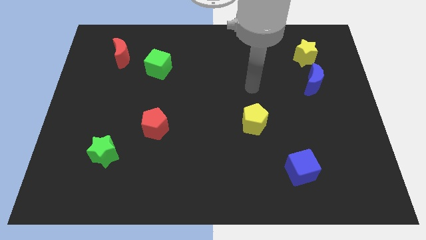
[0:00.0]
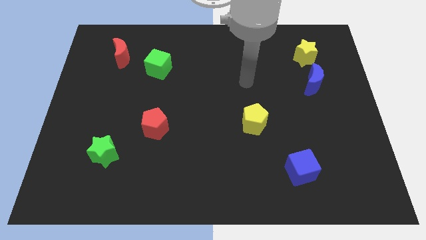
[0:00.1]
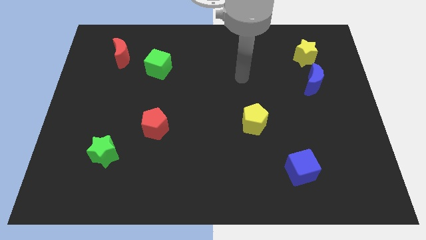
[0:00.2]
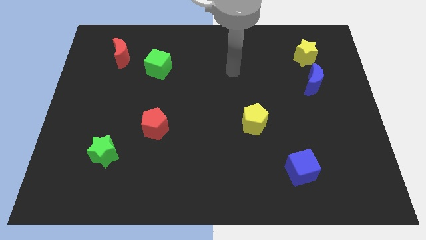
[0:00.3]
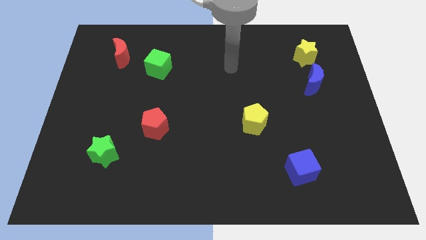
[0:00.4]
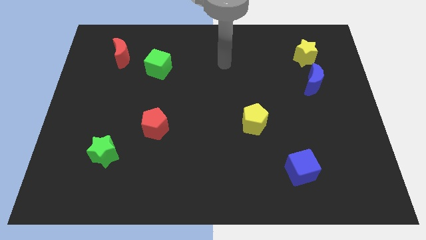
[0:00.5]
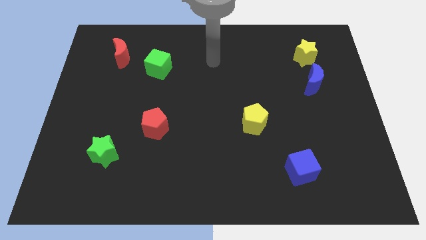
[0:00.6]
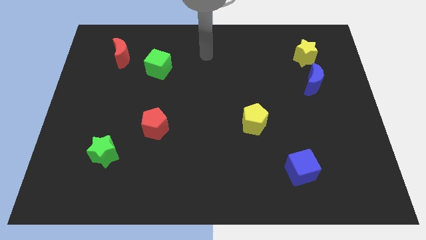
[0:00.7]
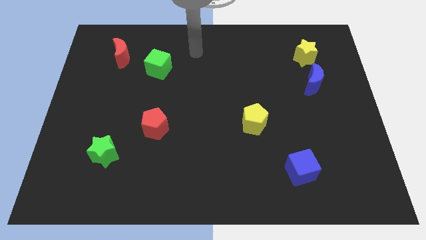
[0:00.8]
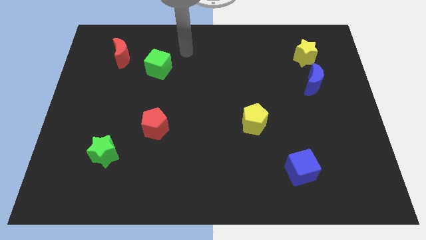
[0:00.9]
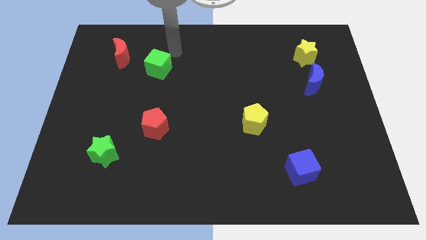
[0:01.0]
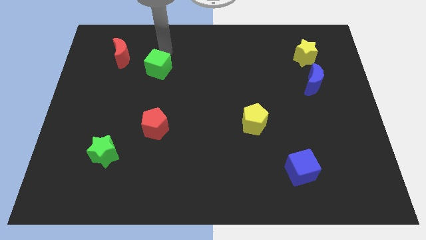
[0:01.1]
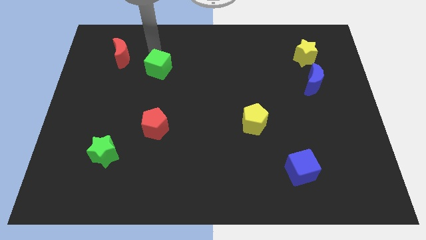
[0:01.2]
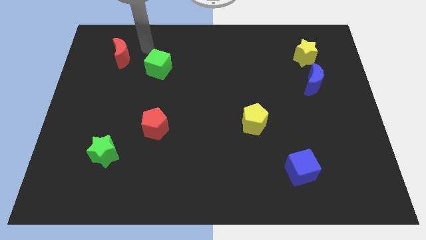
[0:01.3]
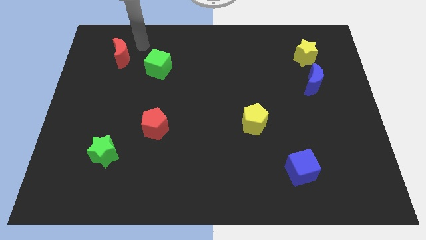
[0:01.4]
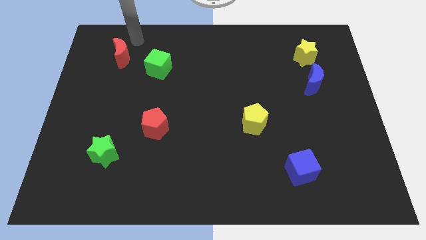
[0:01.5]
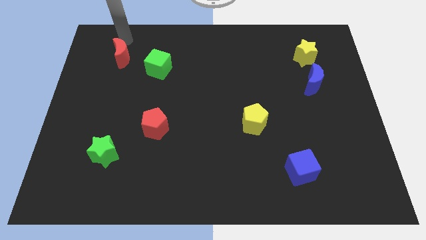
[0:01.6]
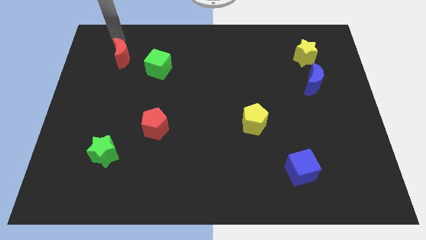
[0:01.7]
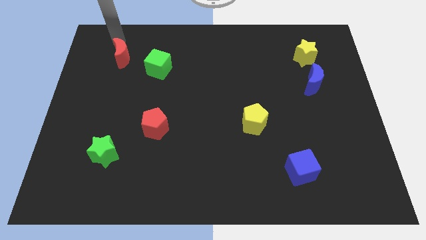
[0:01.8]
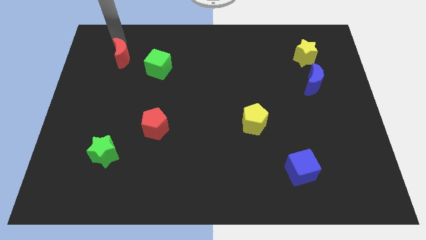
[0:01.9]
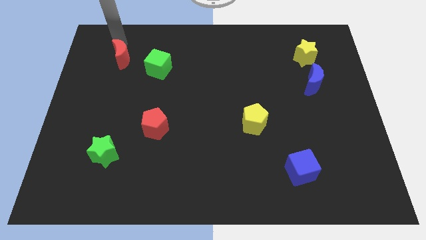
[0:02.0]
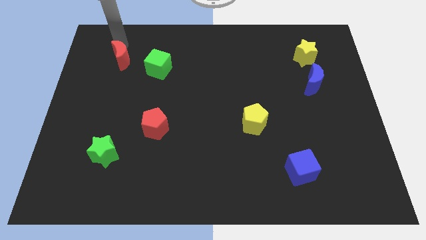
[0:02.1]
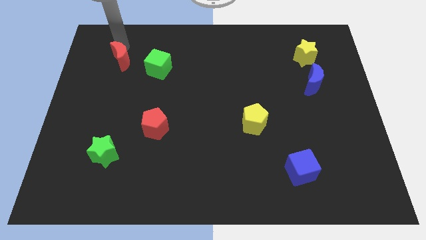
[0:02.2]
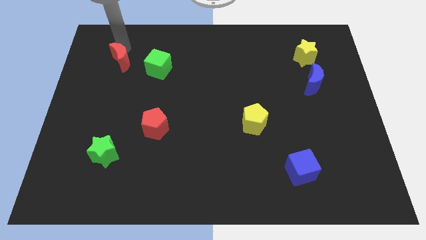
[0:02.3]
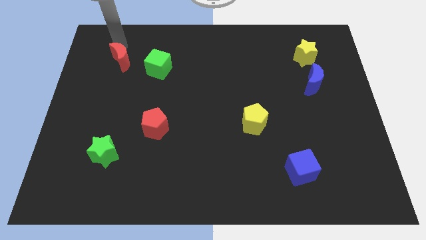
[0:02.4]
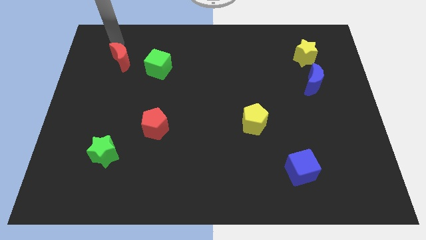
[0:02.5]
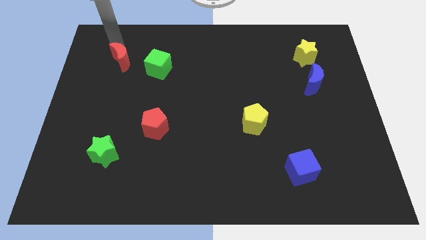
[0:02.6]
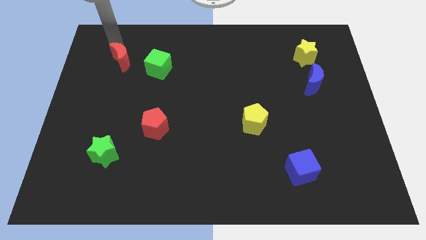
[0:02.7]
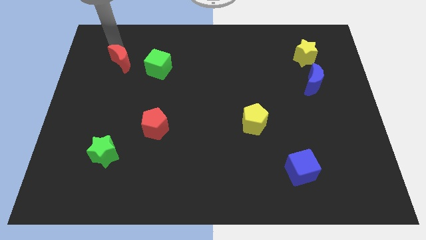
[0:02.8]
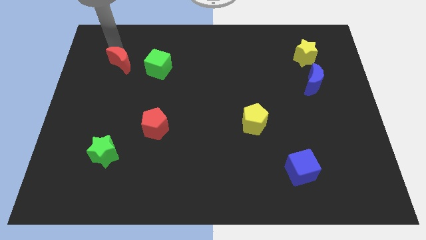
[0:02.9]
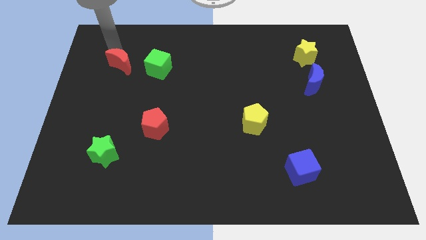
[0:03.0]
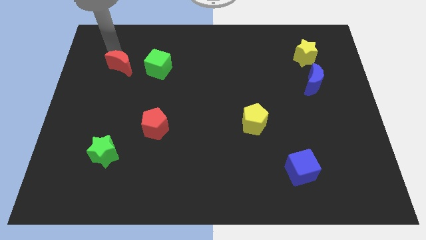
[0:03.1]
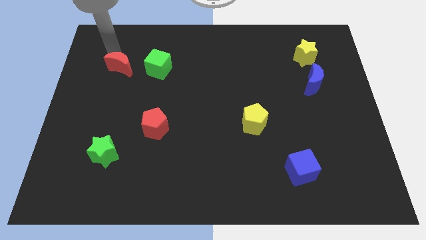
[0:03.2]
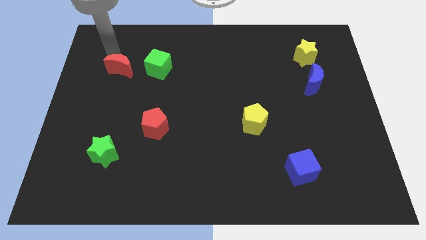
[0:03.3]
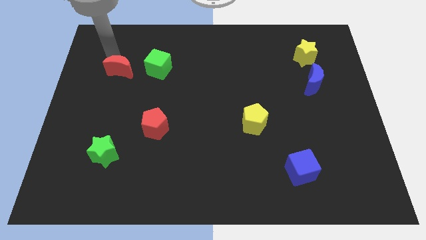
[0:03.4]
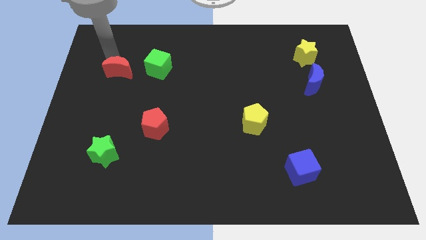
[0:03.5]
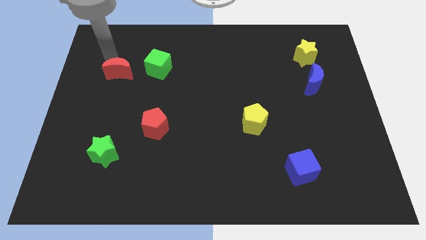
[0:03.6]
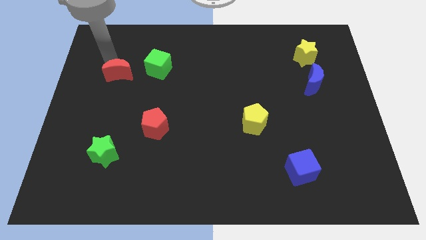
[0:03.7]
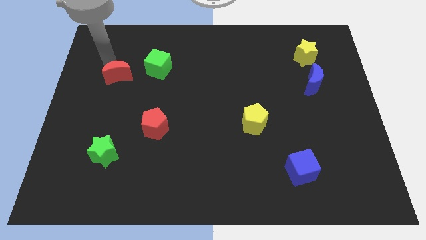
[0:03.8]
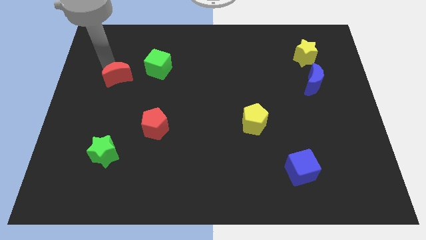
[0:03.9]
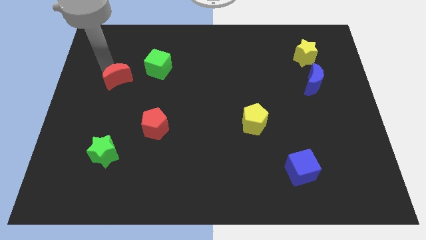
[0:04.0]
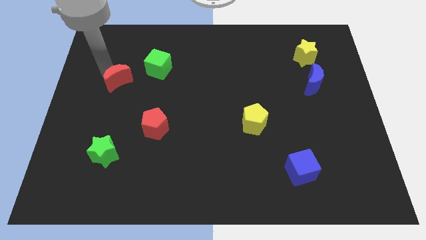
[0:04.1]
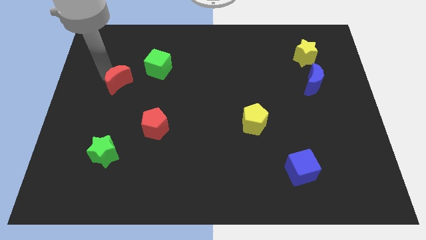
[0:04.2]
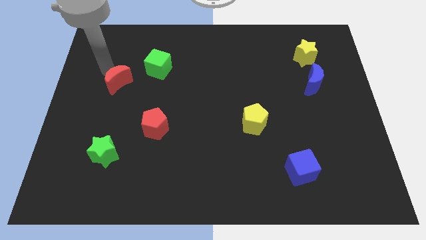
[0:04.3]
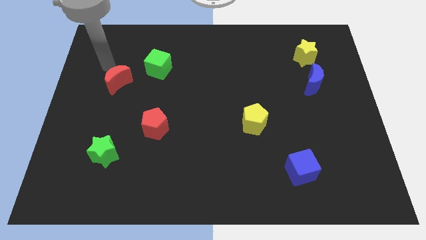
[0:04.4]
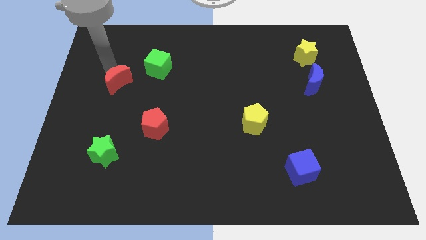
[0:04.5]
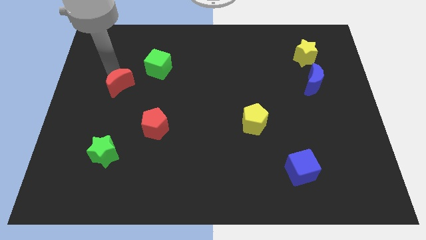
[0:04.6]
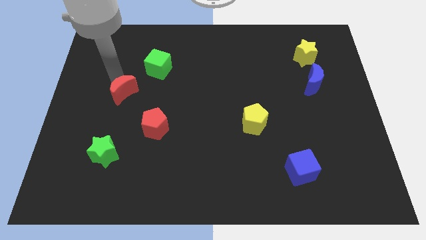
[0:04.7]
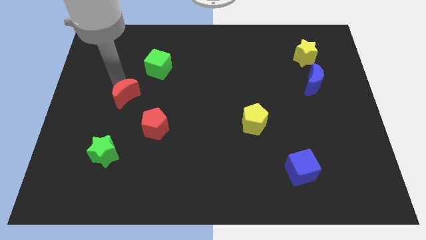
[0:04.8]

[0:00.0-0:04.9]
put the red moon diagonally up and to the left of the red pentagon

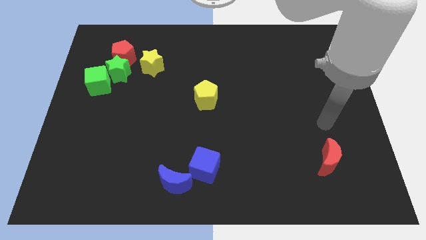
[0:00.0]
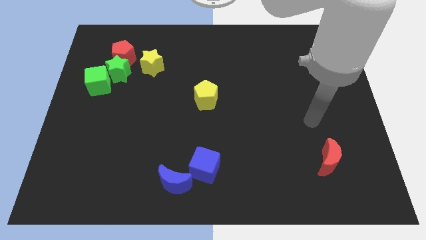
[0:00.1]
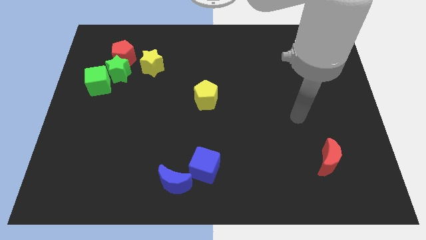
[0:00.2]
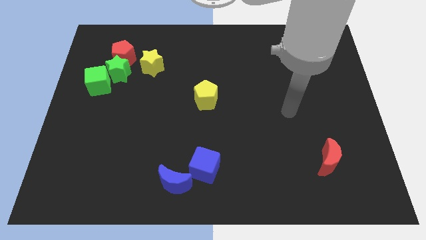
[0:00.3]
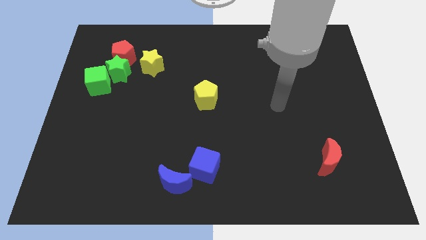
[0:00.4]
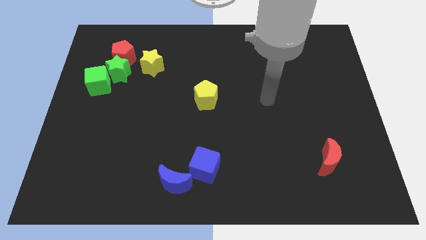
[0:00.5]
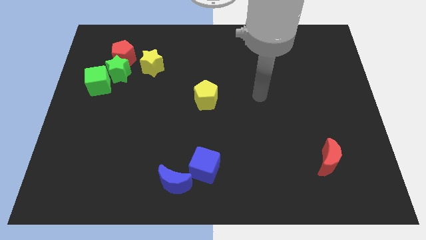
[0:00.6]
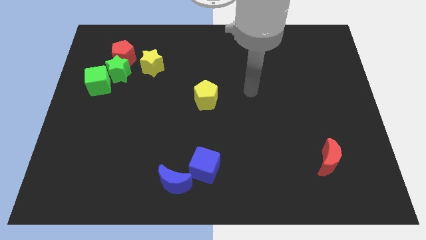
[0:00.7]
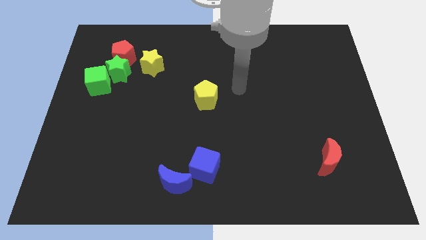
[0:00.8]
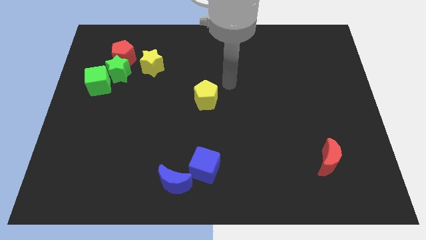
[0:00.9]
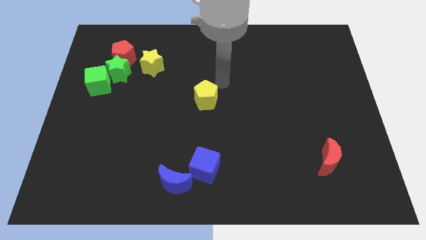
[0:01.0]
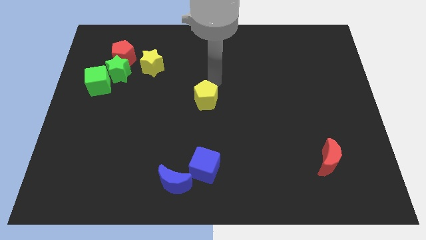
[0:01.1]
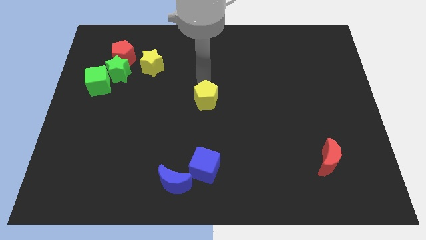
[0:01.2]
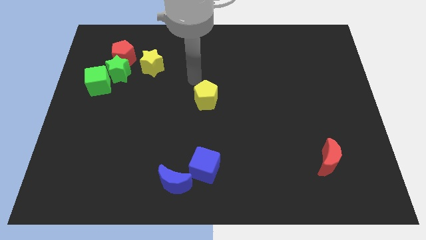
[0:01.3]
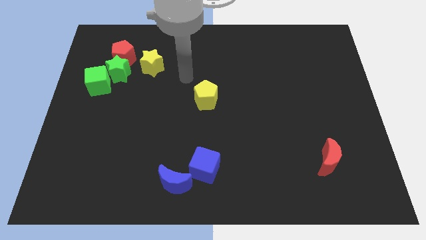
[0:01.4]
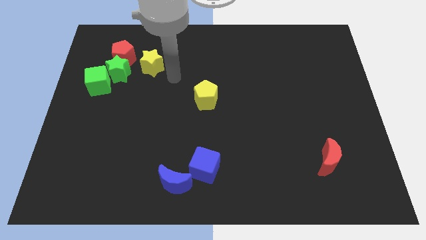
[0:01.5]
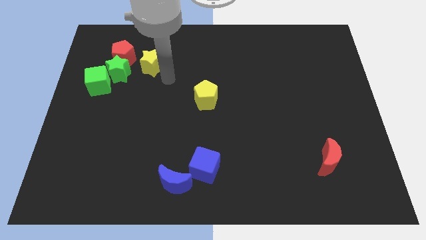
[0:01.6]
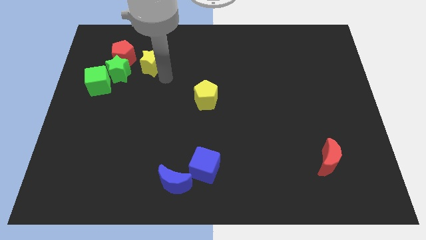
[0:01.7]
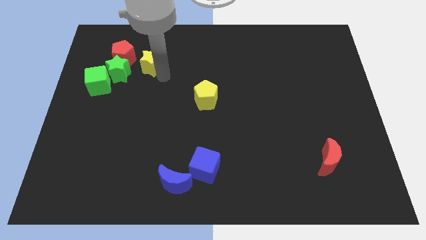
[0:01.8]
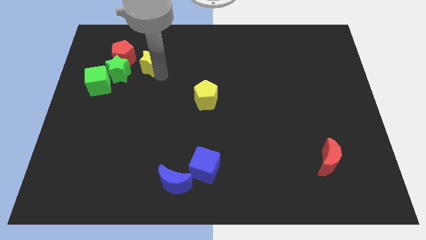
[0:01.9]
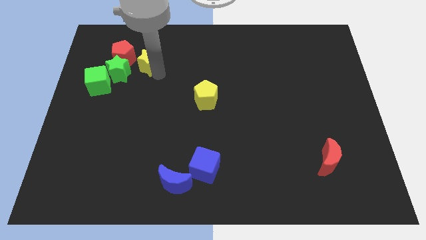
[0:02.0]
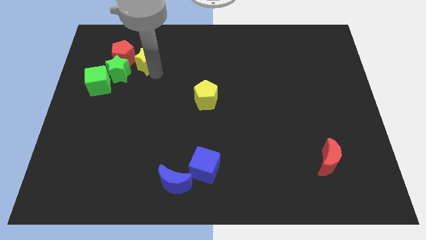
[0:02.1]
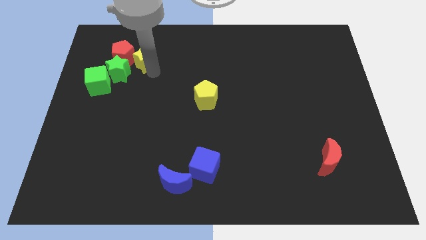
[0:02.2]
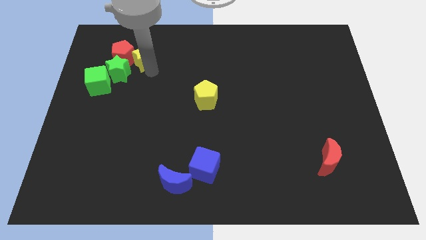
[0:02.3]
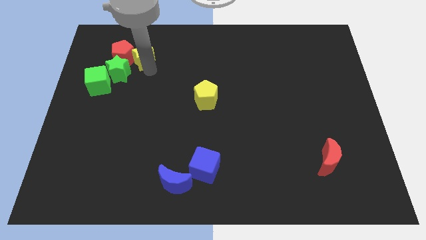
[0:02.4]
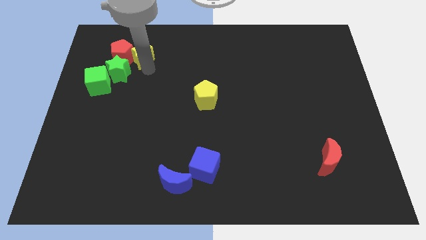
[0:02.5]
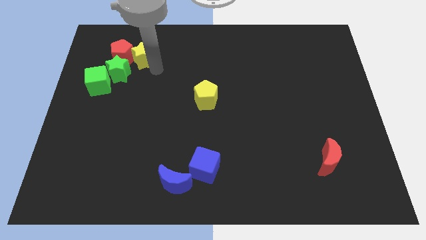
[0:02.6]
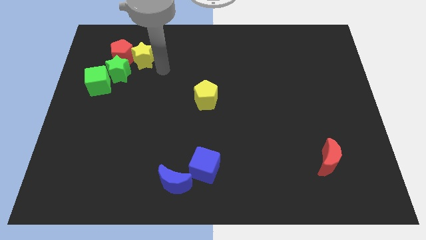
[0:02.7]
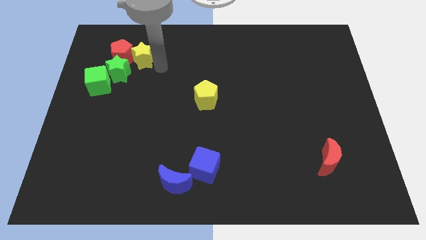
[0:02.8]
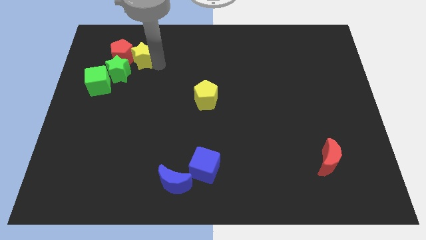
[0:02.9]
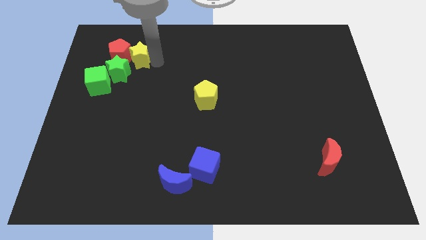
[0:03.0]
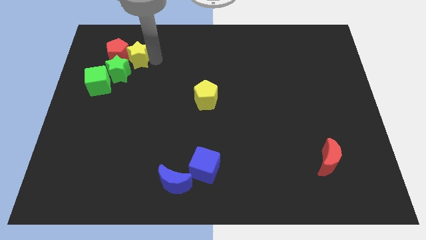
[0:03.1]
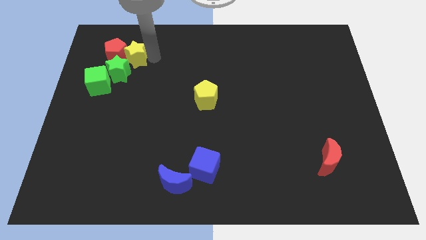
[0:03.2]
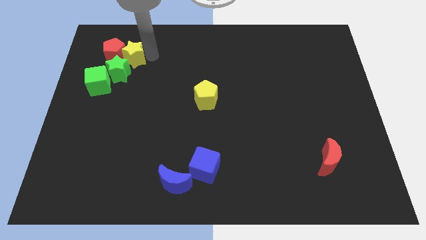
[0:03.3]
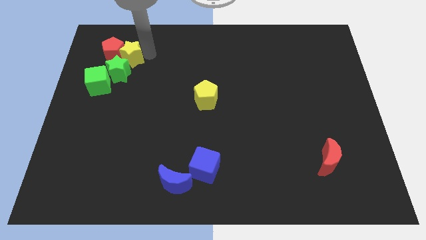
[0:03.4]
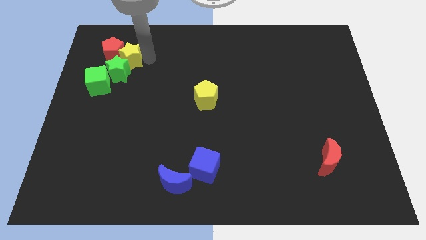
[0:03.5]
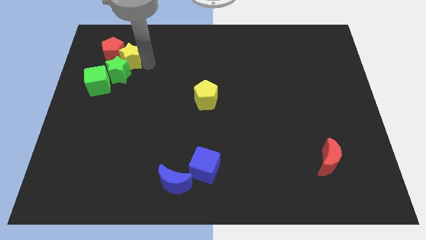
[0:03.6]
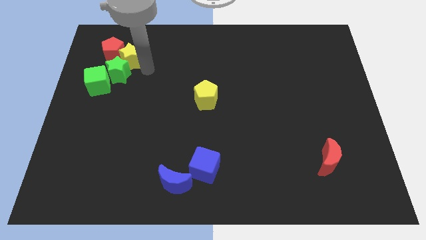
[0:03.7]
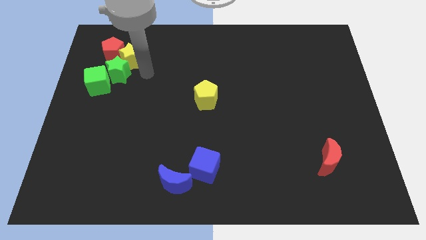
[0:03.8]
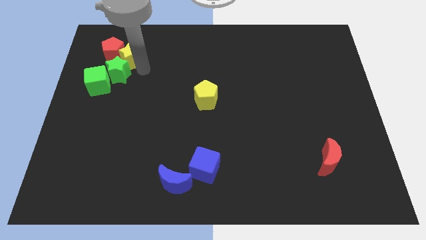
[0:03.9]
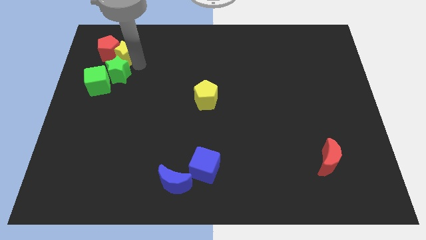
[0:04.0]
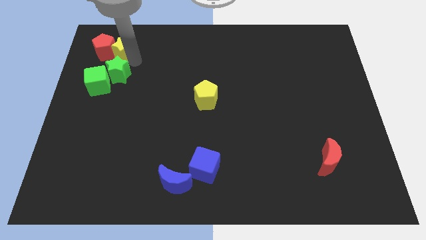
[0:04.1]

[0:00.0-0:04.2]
push the yellow star above the green cube
